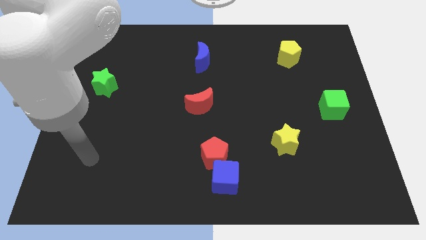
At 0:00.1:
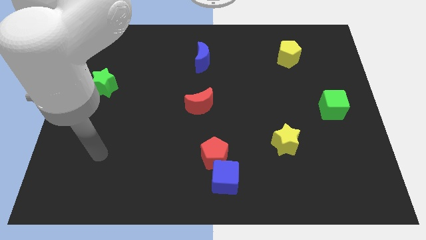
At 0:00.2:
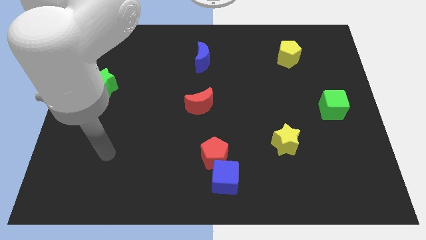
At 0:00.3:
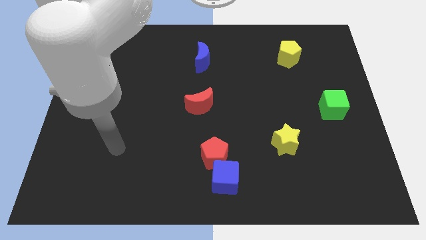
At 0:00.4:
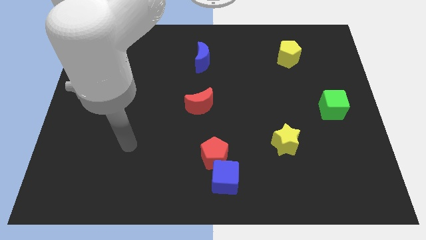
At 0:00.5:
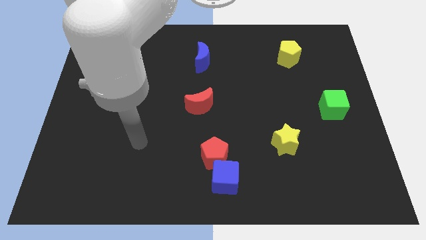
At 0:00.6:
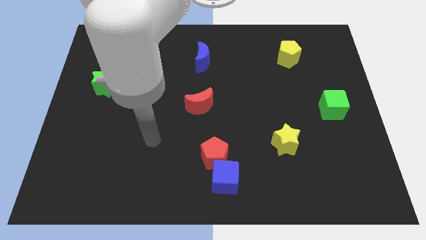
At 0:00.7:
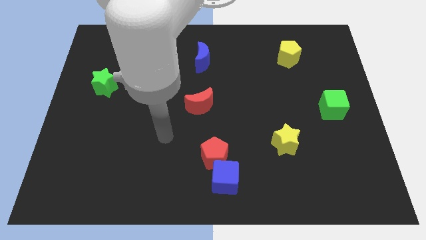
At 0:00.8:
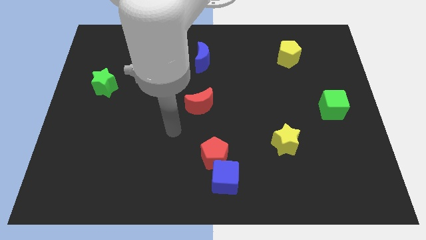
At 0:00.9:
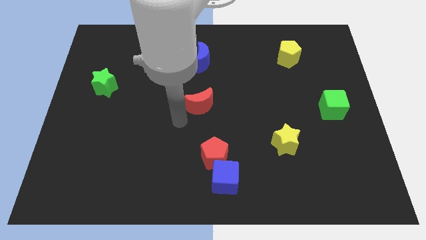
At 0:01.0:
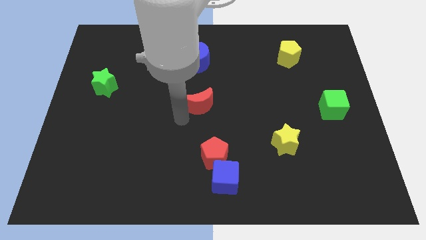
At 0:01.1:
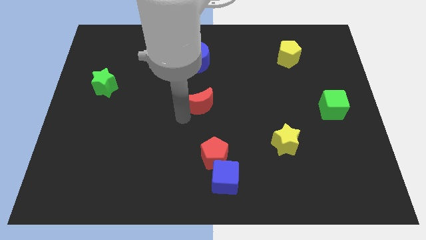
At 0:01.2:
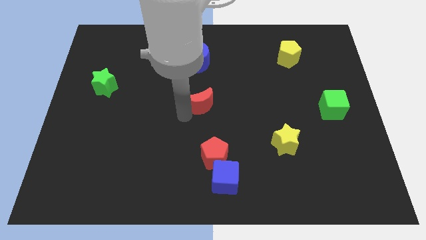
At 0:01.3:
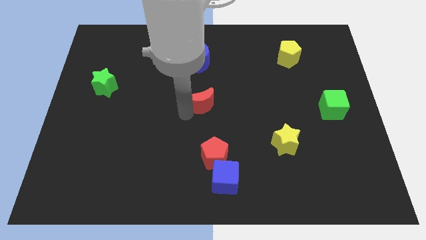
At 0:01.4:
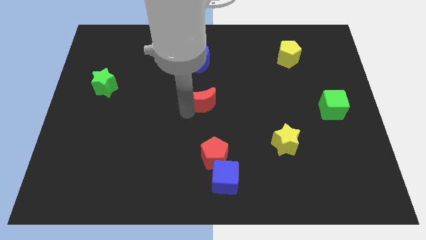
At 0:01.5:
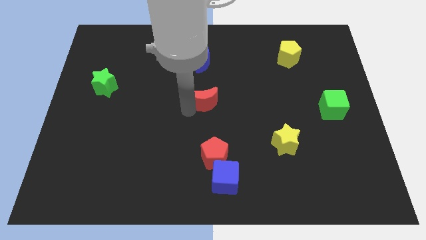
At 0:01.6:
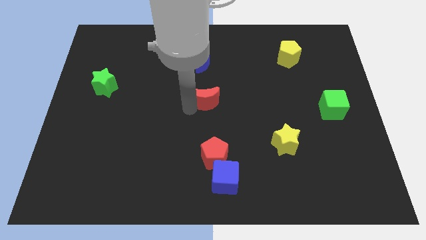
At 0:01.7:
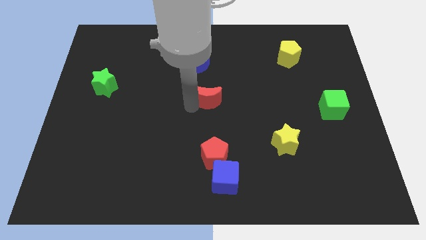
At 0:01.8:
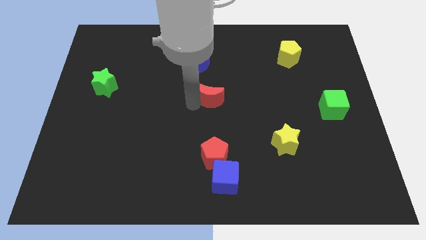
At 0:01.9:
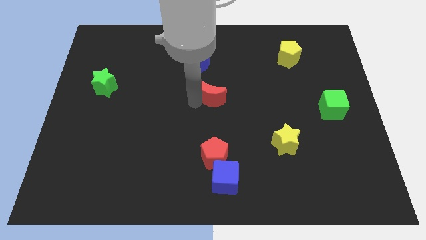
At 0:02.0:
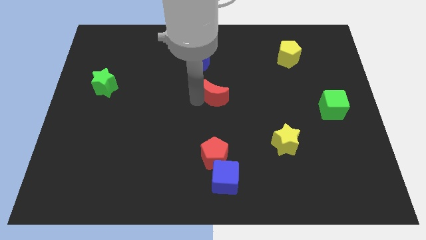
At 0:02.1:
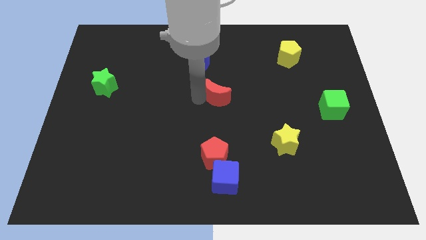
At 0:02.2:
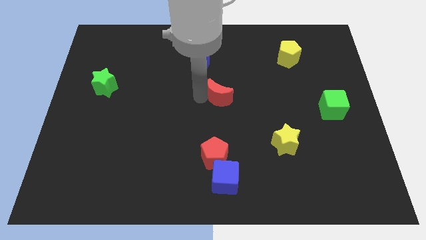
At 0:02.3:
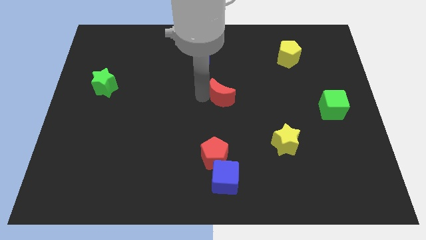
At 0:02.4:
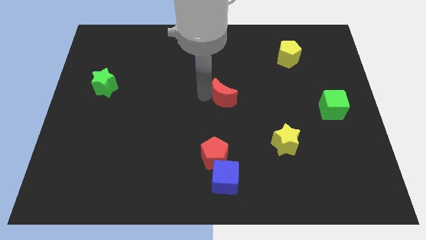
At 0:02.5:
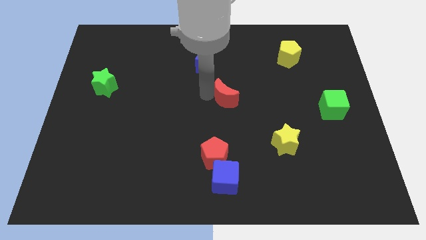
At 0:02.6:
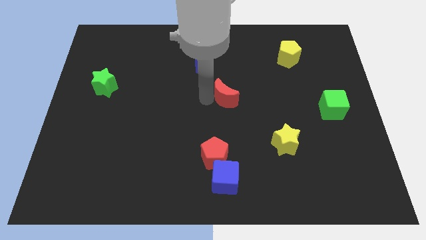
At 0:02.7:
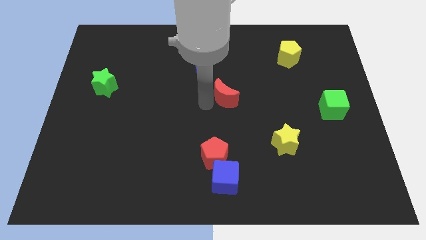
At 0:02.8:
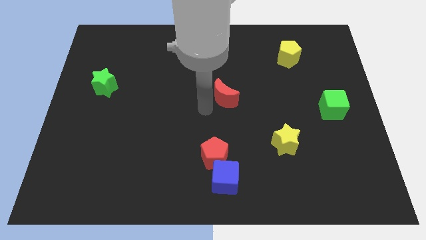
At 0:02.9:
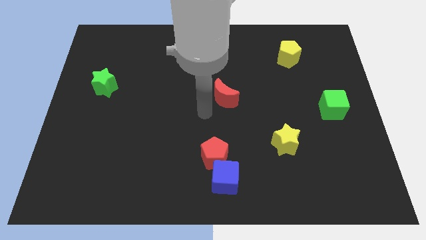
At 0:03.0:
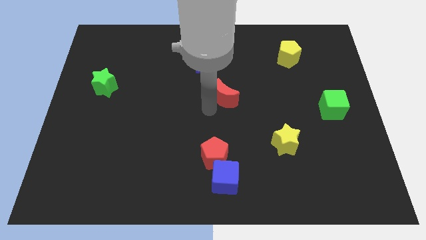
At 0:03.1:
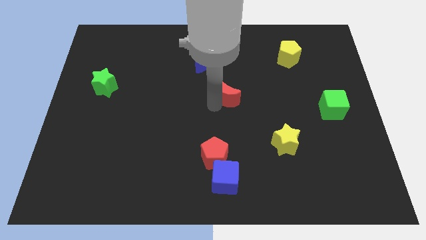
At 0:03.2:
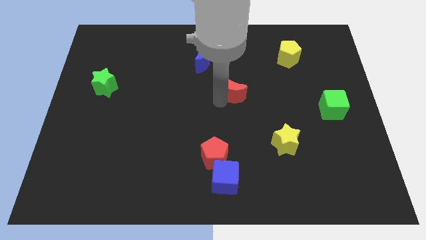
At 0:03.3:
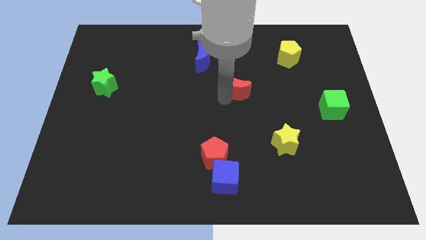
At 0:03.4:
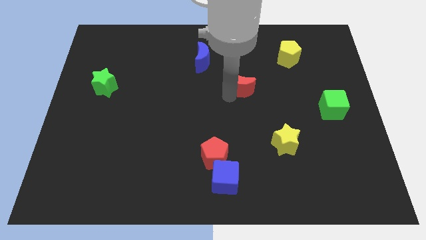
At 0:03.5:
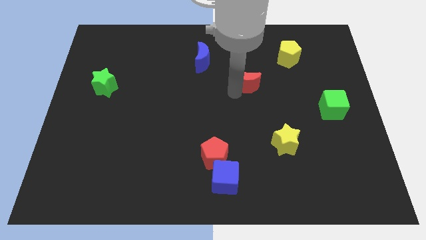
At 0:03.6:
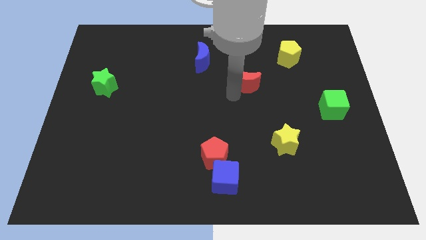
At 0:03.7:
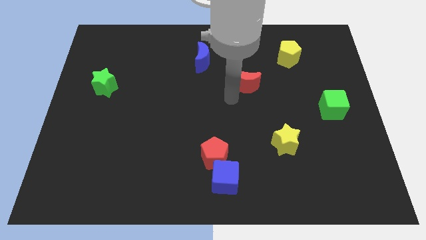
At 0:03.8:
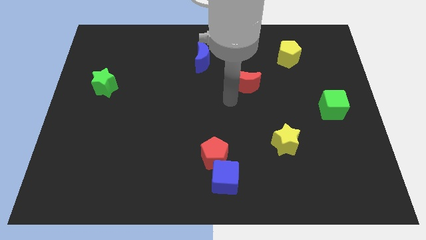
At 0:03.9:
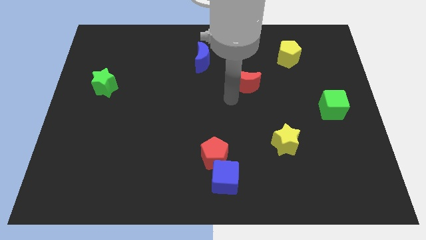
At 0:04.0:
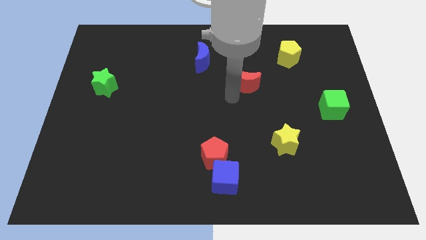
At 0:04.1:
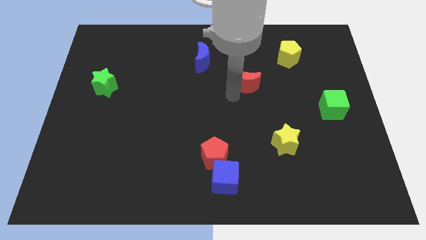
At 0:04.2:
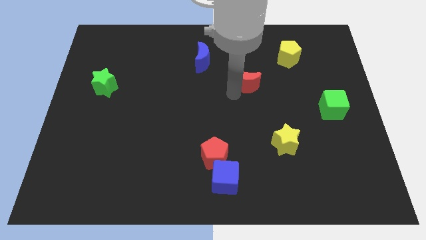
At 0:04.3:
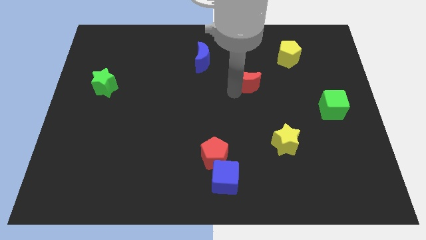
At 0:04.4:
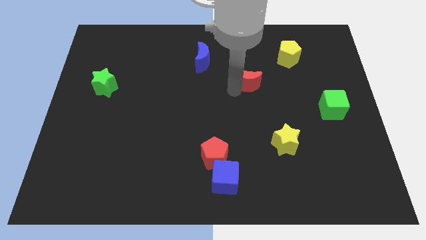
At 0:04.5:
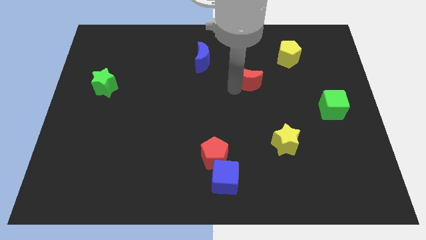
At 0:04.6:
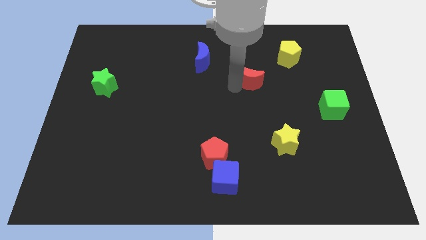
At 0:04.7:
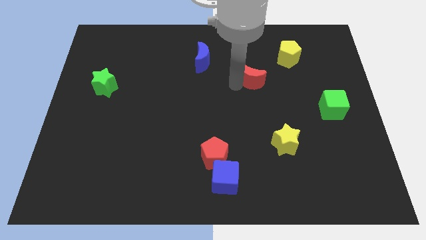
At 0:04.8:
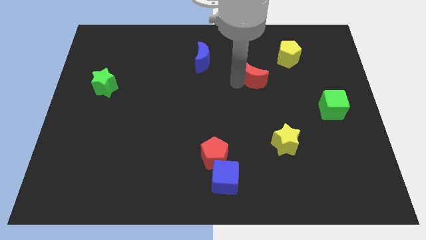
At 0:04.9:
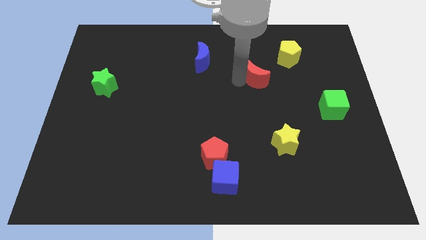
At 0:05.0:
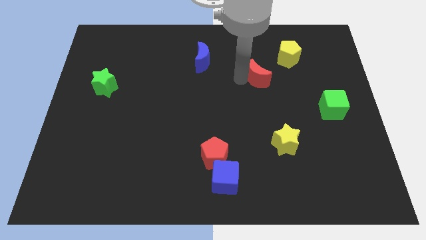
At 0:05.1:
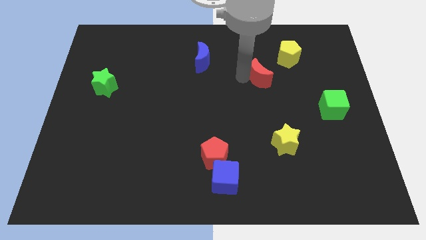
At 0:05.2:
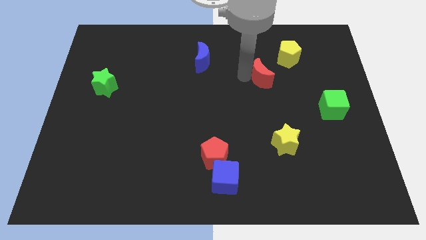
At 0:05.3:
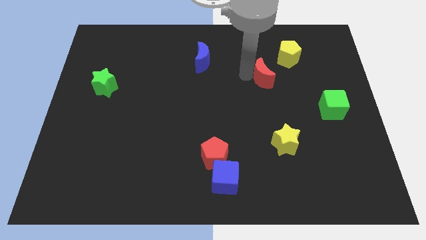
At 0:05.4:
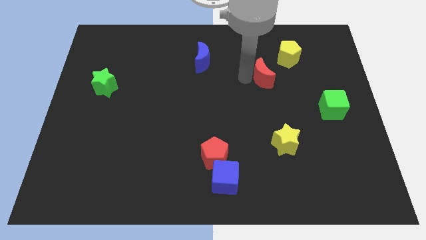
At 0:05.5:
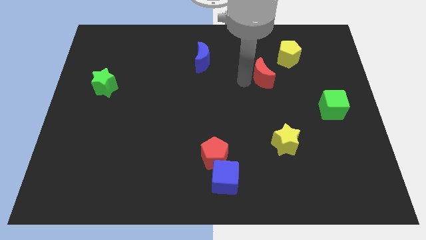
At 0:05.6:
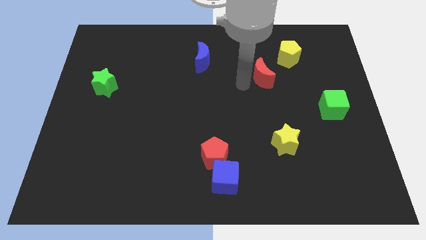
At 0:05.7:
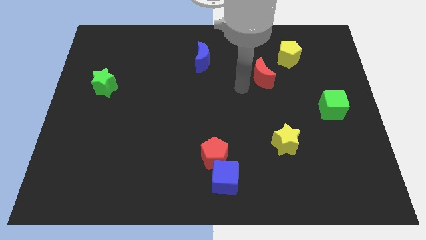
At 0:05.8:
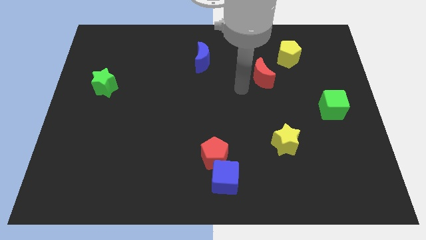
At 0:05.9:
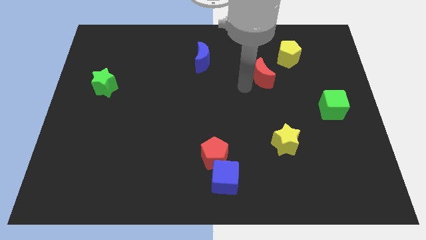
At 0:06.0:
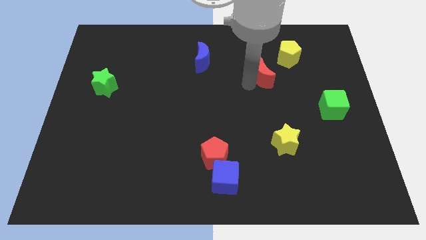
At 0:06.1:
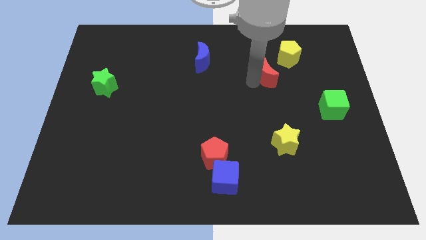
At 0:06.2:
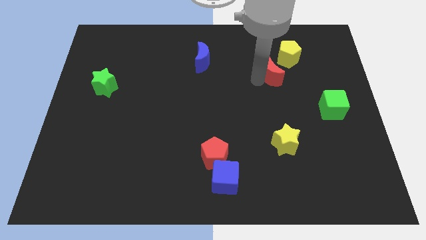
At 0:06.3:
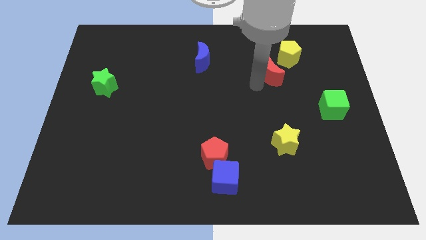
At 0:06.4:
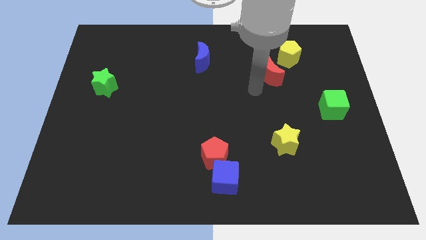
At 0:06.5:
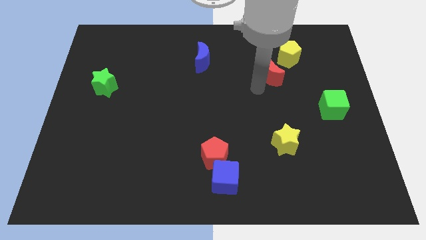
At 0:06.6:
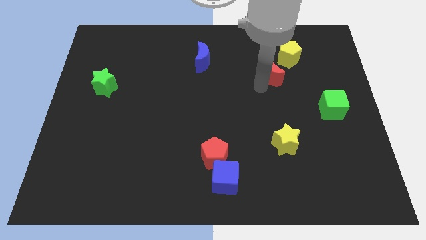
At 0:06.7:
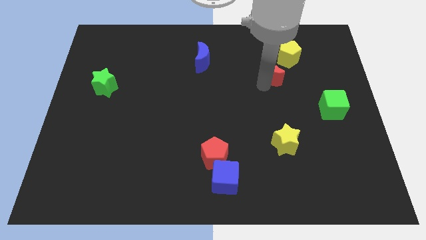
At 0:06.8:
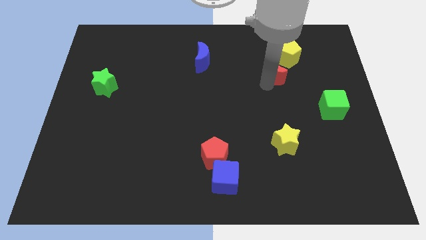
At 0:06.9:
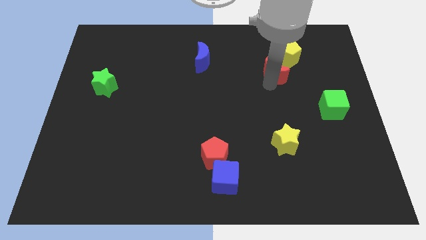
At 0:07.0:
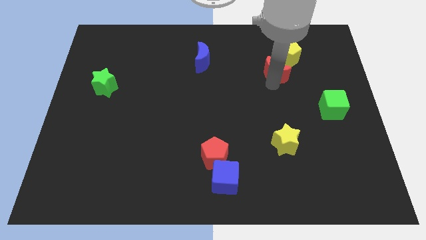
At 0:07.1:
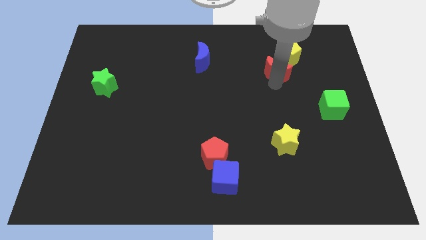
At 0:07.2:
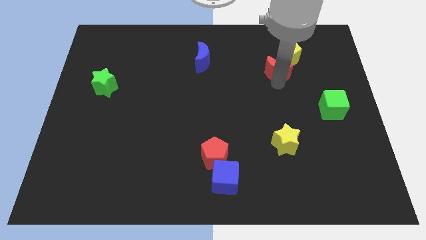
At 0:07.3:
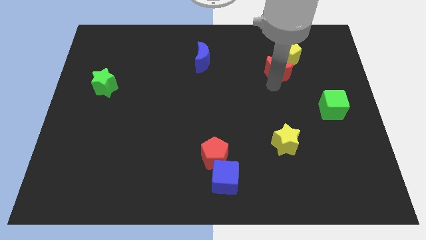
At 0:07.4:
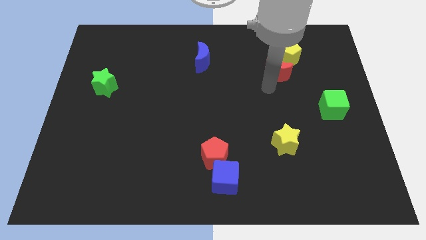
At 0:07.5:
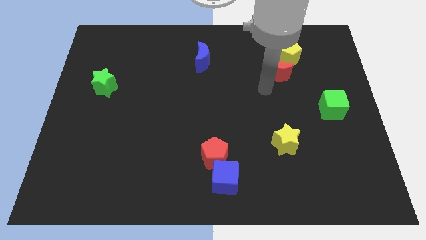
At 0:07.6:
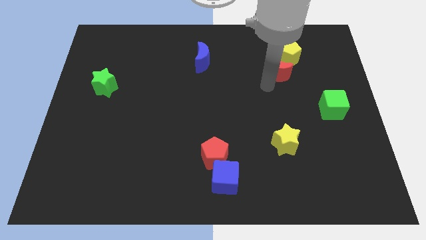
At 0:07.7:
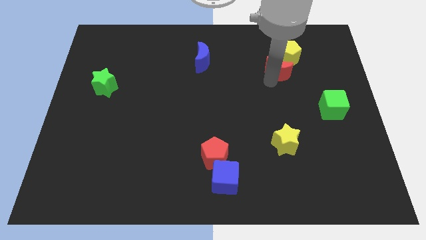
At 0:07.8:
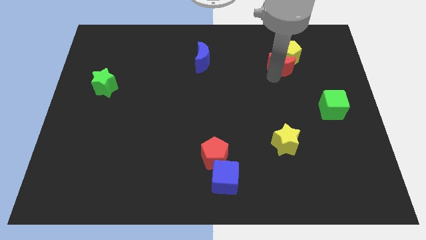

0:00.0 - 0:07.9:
move the red moon to the yellow pentagon
